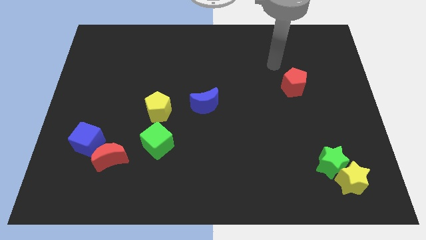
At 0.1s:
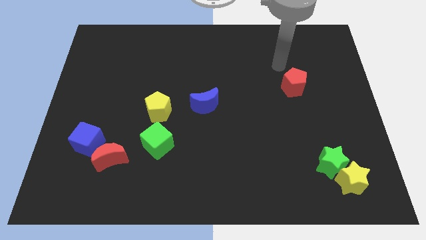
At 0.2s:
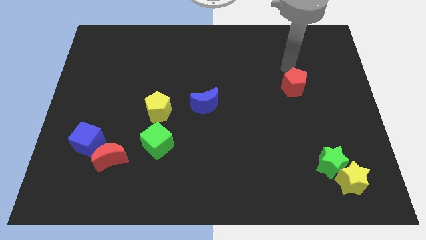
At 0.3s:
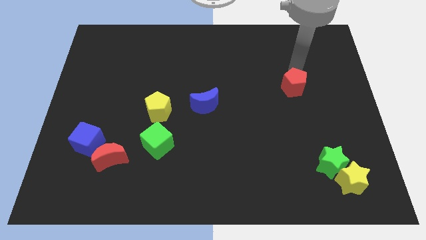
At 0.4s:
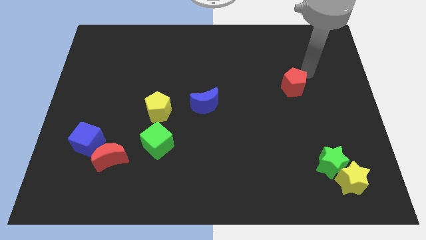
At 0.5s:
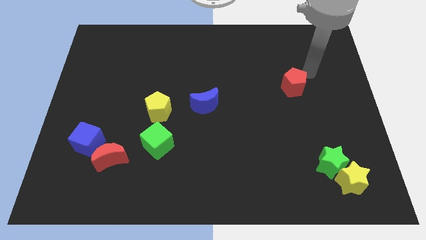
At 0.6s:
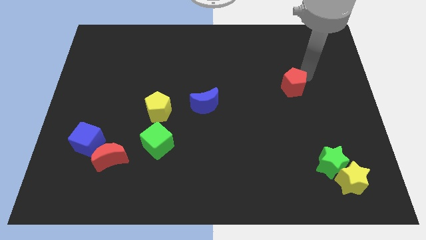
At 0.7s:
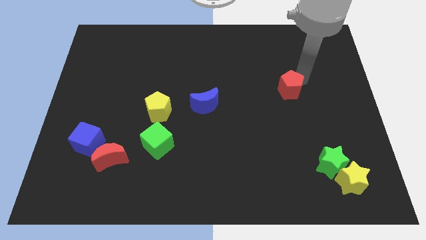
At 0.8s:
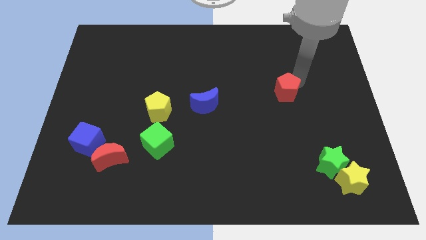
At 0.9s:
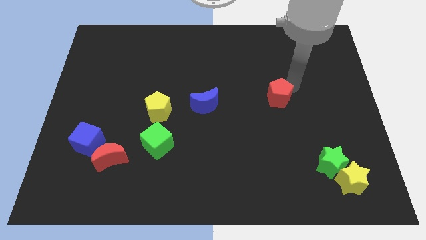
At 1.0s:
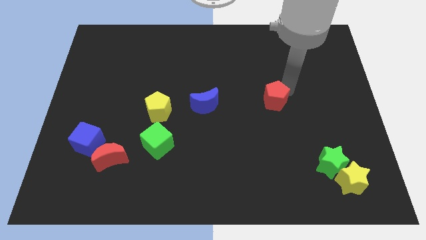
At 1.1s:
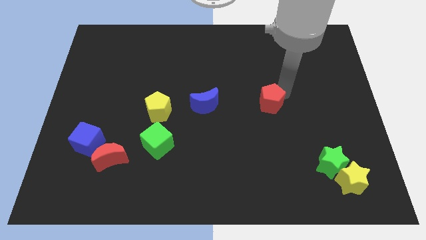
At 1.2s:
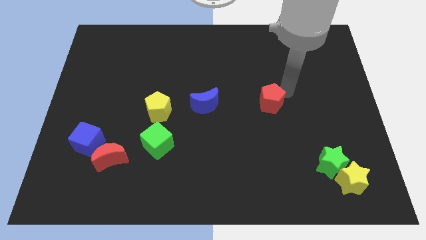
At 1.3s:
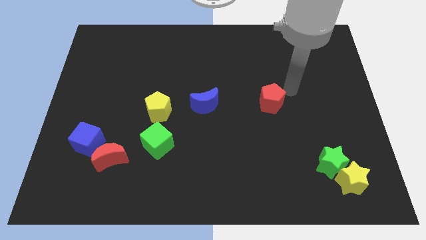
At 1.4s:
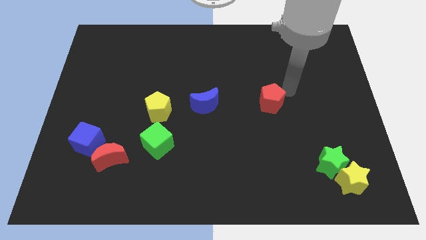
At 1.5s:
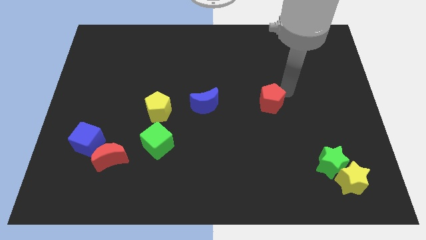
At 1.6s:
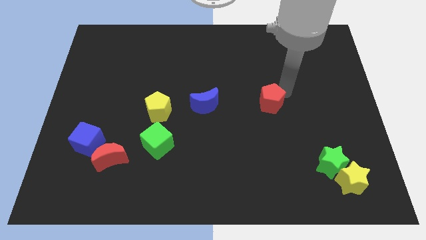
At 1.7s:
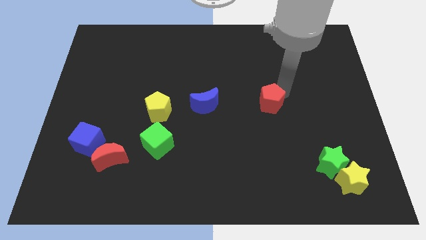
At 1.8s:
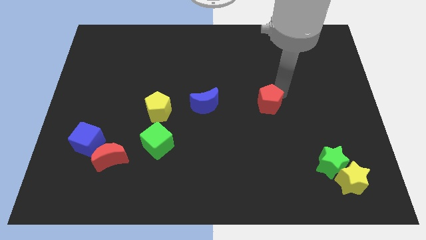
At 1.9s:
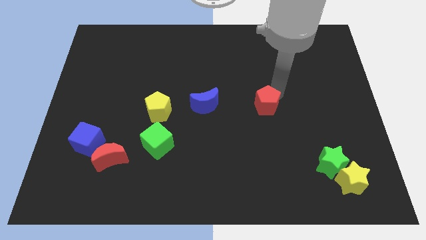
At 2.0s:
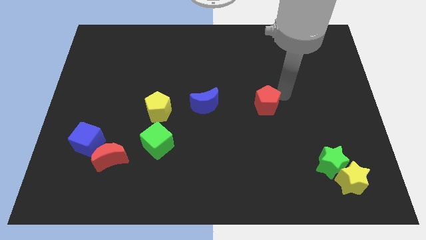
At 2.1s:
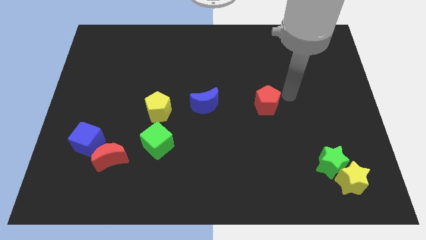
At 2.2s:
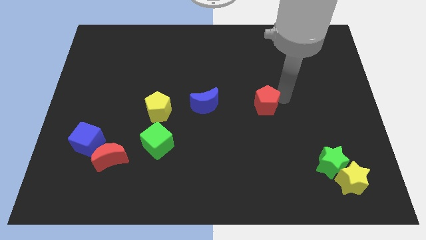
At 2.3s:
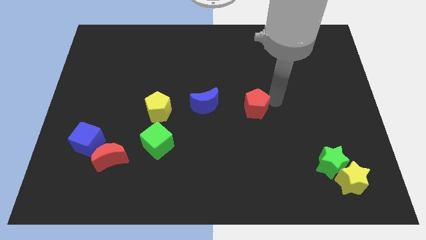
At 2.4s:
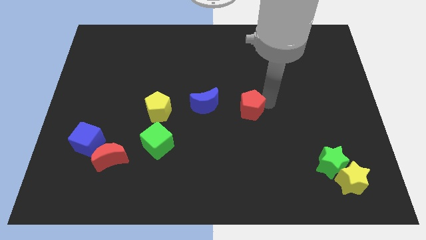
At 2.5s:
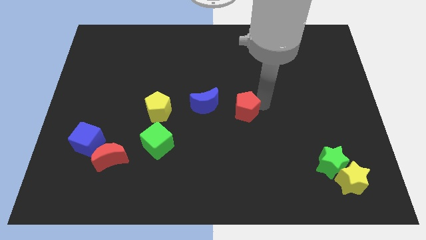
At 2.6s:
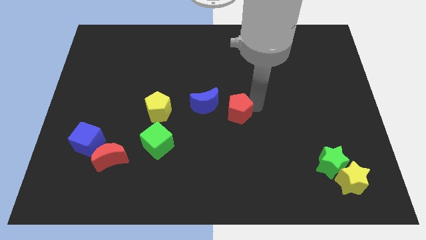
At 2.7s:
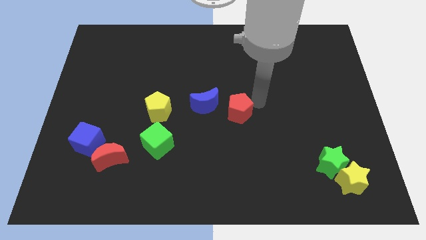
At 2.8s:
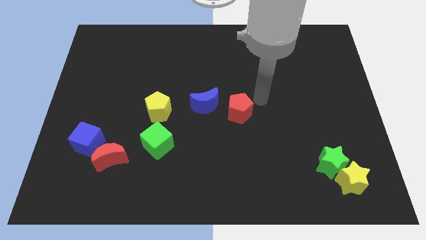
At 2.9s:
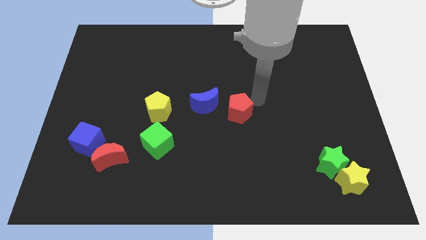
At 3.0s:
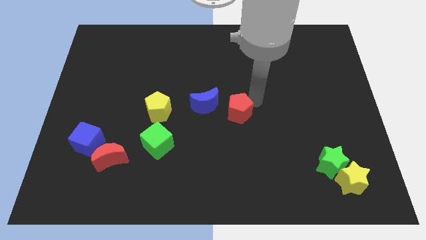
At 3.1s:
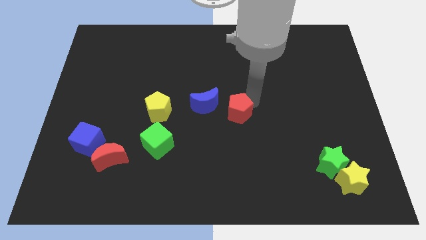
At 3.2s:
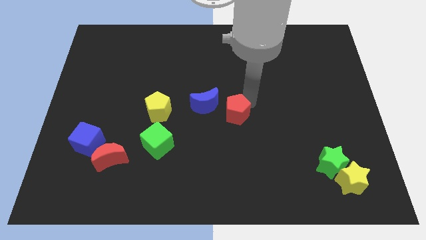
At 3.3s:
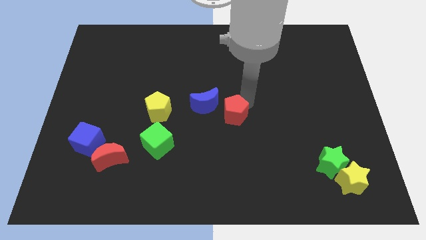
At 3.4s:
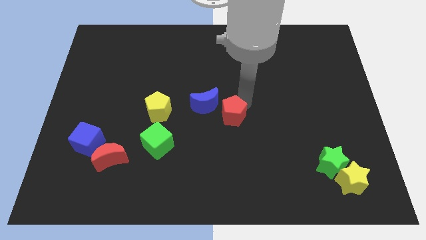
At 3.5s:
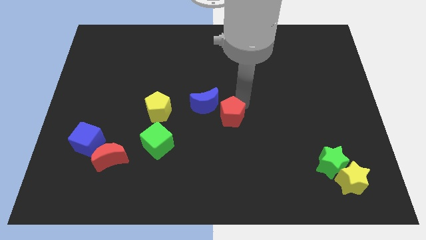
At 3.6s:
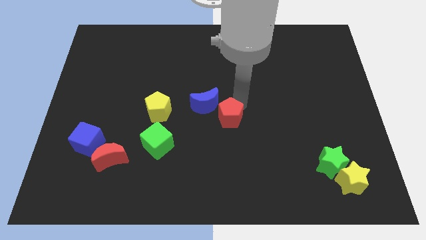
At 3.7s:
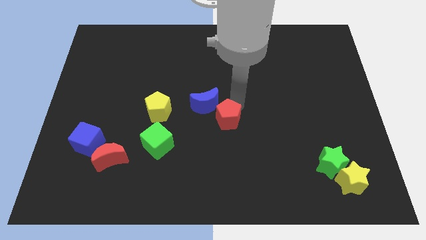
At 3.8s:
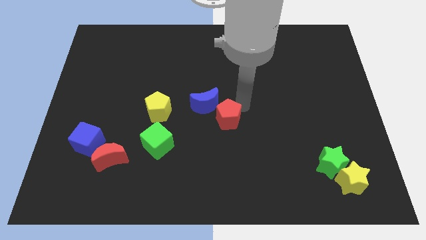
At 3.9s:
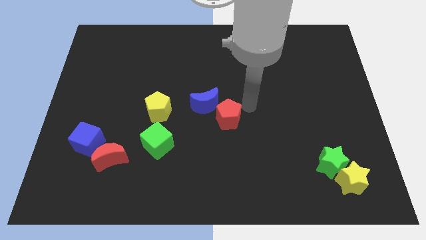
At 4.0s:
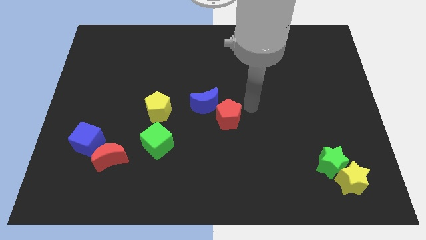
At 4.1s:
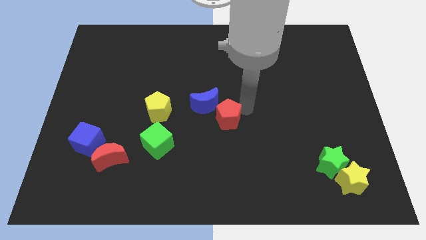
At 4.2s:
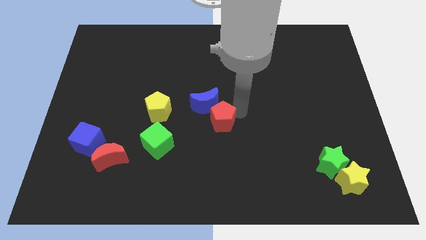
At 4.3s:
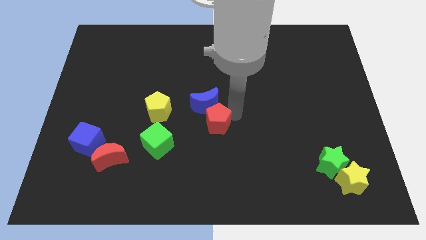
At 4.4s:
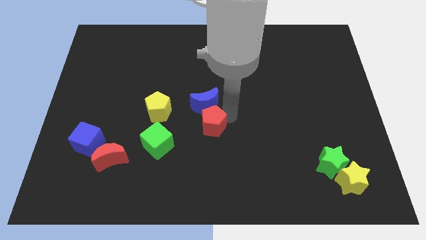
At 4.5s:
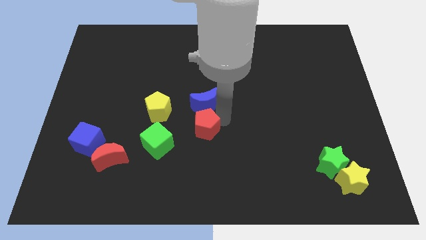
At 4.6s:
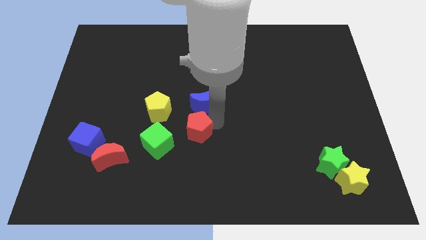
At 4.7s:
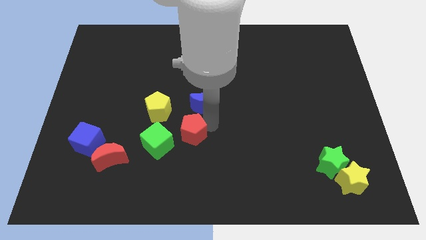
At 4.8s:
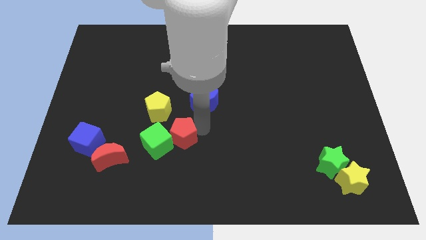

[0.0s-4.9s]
put the red pentagon next to the green cube

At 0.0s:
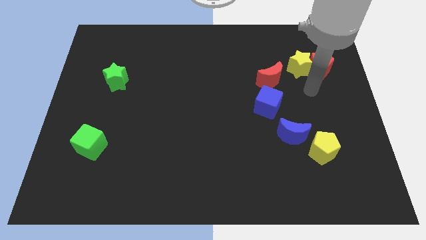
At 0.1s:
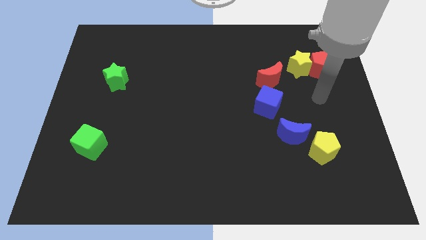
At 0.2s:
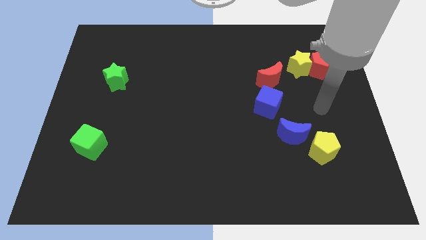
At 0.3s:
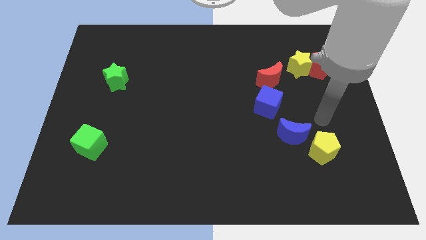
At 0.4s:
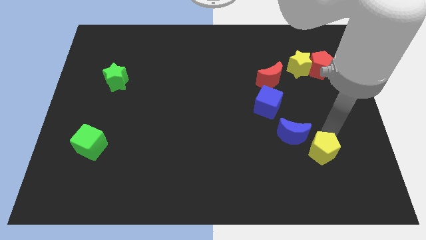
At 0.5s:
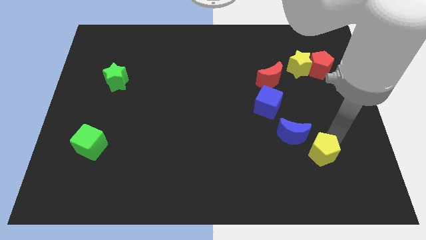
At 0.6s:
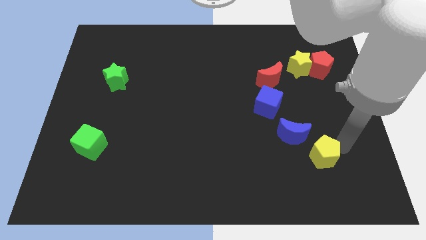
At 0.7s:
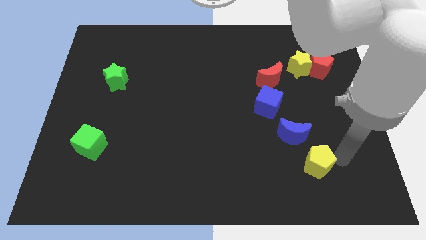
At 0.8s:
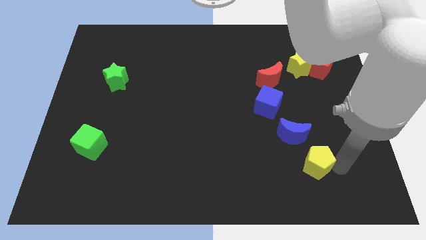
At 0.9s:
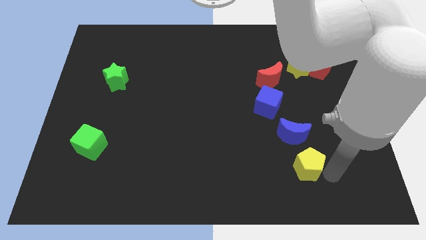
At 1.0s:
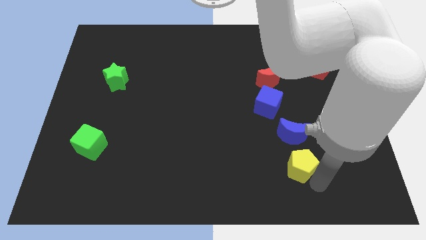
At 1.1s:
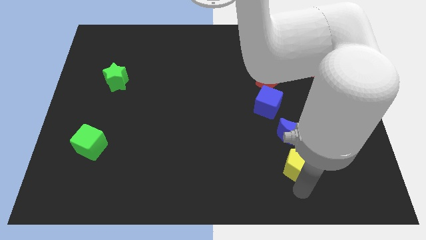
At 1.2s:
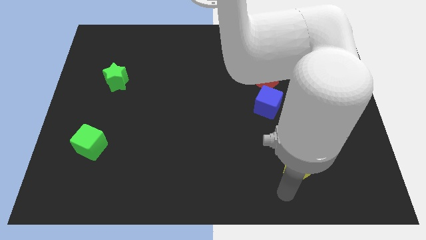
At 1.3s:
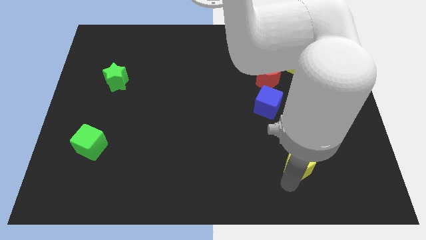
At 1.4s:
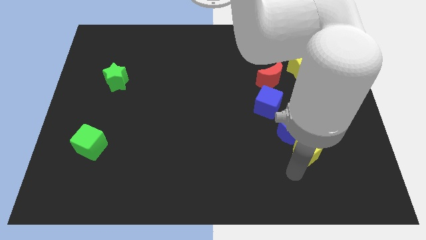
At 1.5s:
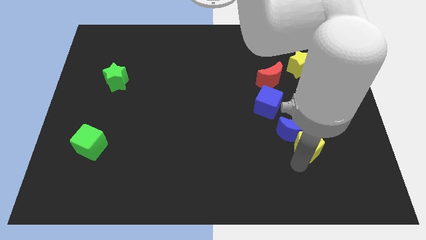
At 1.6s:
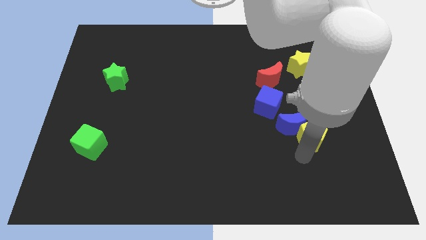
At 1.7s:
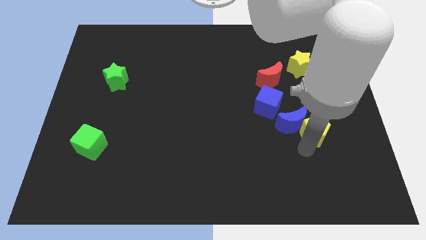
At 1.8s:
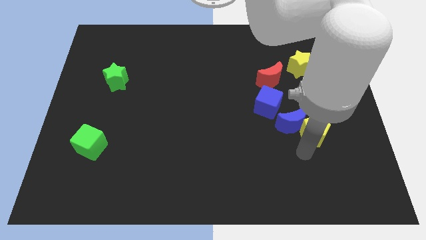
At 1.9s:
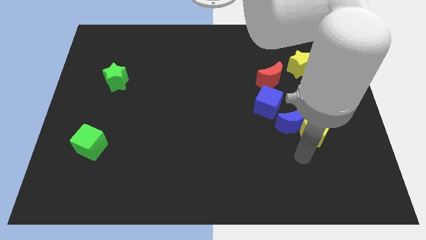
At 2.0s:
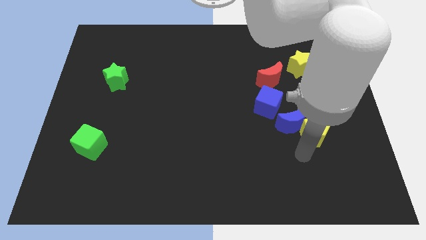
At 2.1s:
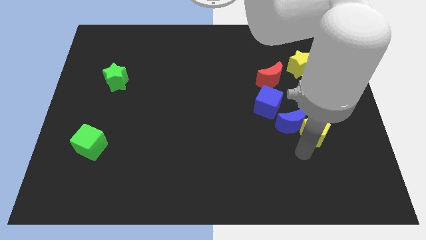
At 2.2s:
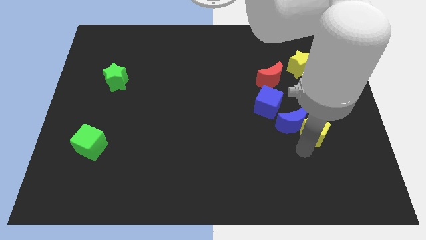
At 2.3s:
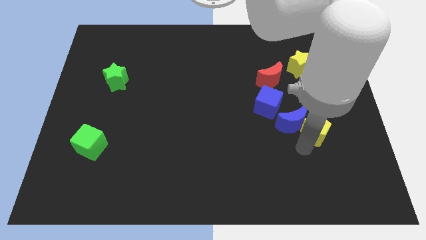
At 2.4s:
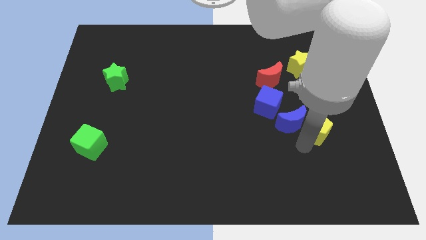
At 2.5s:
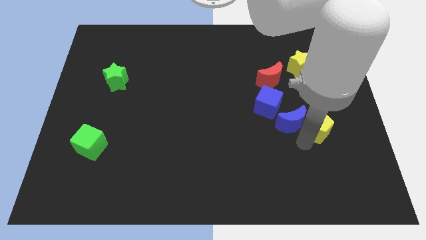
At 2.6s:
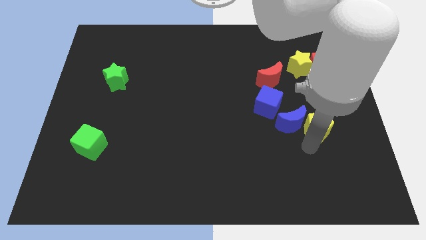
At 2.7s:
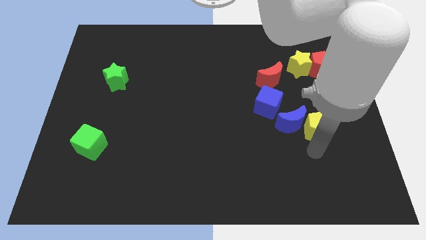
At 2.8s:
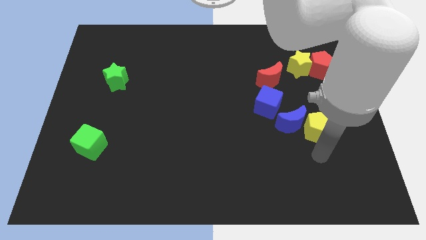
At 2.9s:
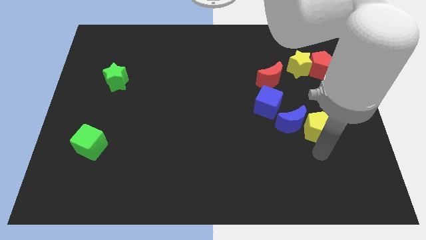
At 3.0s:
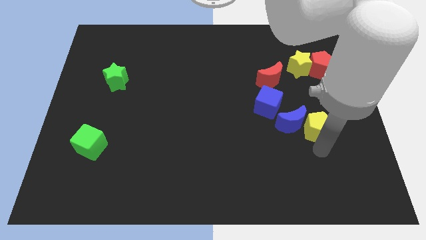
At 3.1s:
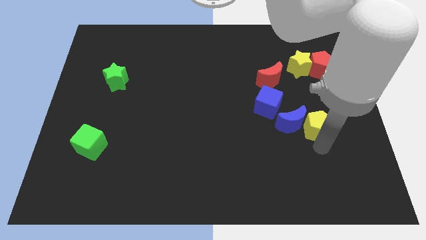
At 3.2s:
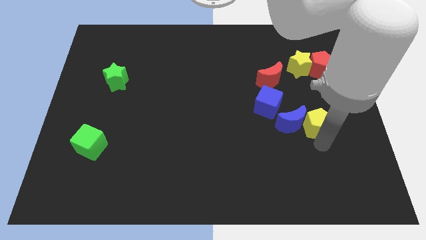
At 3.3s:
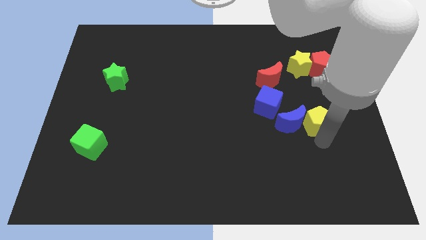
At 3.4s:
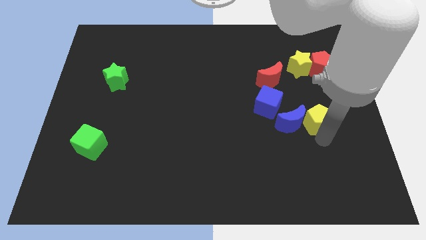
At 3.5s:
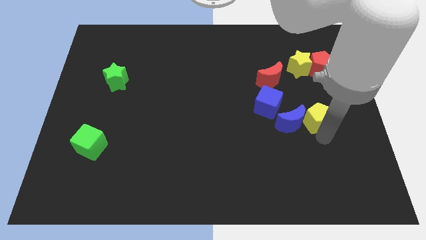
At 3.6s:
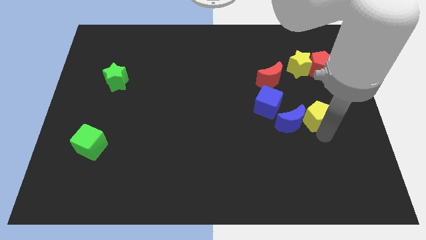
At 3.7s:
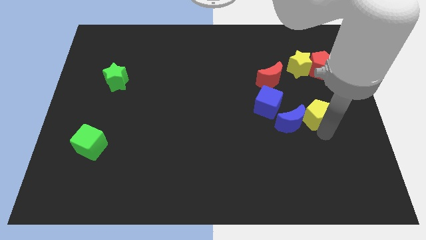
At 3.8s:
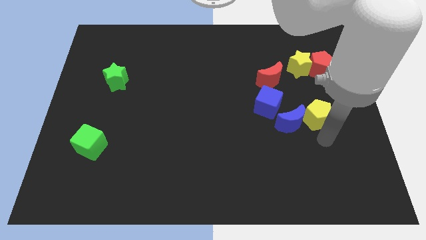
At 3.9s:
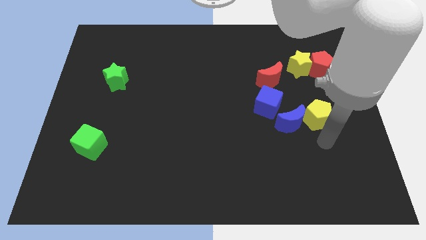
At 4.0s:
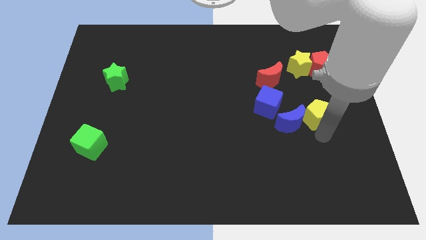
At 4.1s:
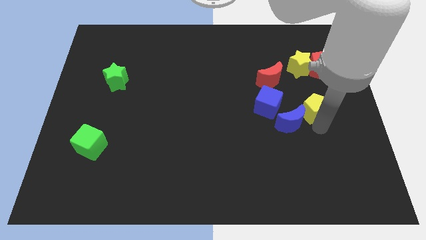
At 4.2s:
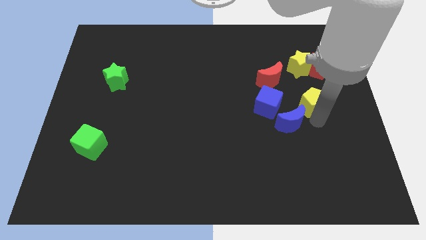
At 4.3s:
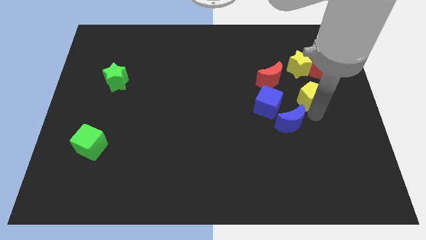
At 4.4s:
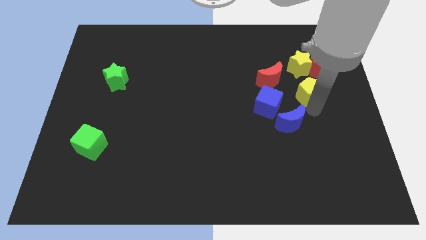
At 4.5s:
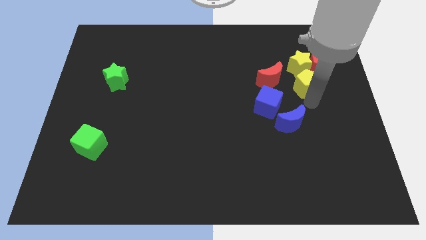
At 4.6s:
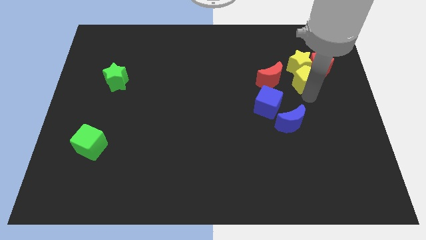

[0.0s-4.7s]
slide the yellow pentagon towards the yellow star
